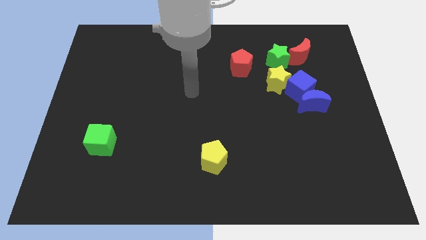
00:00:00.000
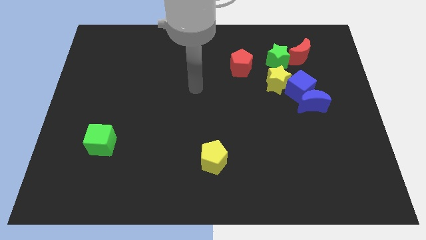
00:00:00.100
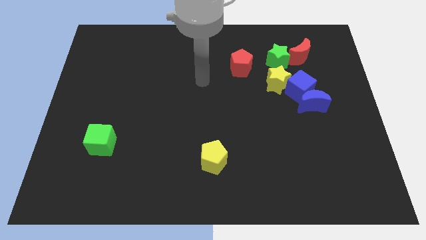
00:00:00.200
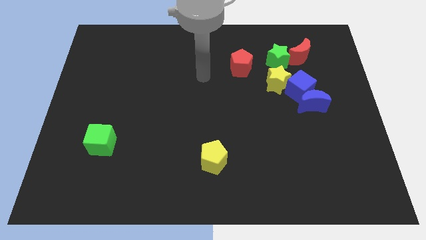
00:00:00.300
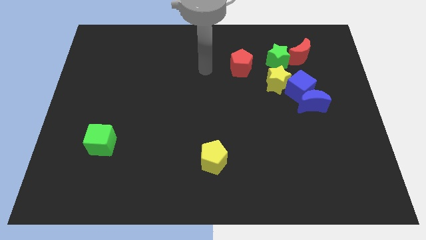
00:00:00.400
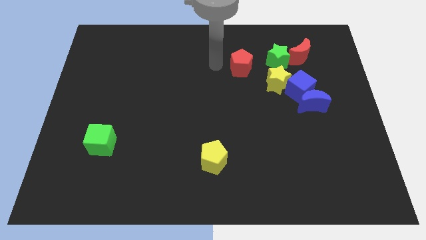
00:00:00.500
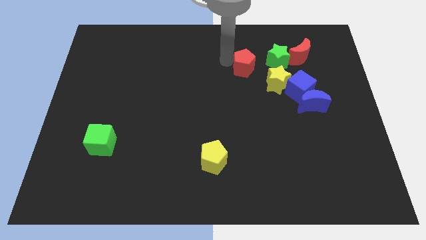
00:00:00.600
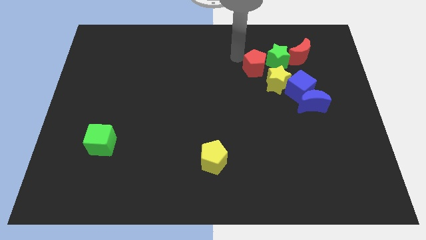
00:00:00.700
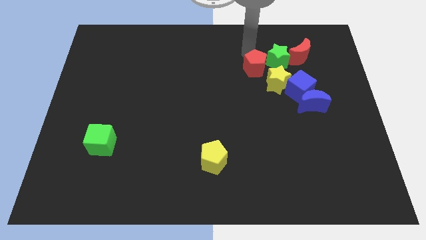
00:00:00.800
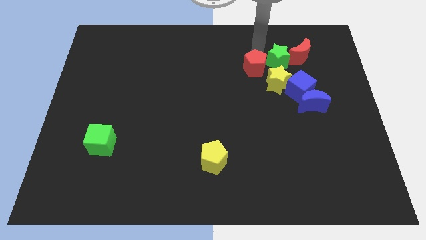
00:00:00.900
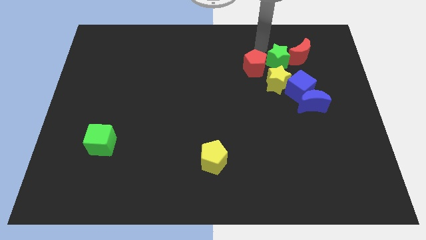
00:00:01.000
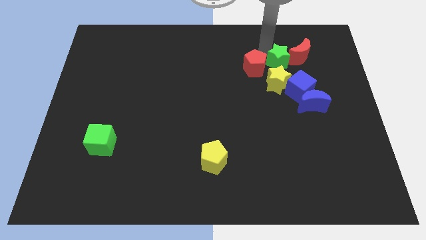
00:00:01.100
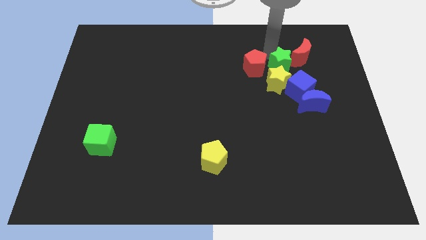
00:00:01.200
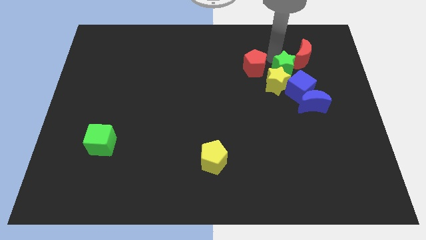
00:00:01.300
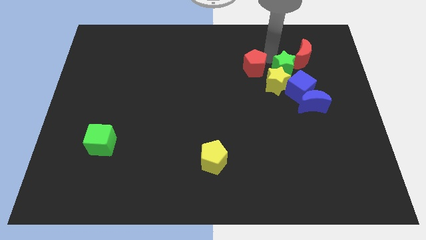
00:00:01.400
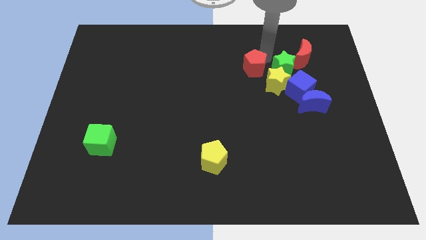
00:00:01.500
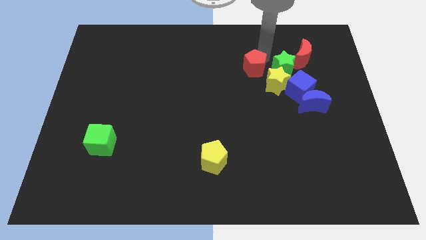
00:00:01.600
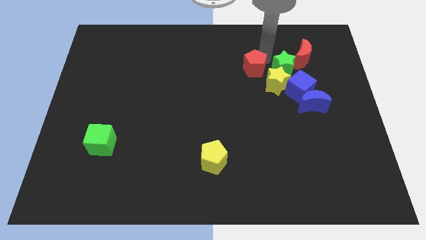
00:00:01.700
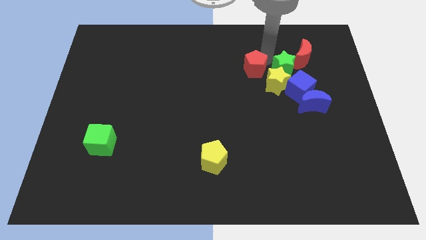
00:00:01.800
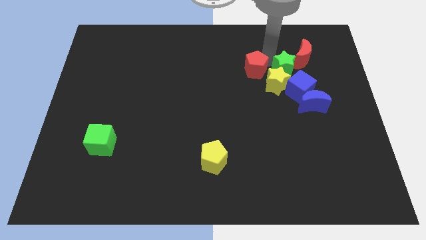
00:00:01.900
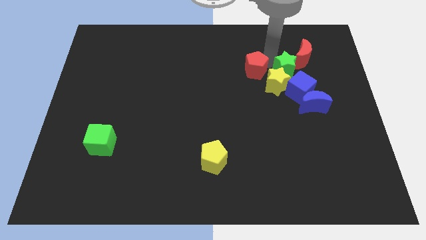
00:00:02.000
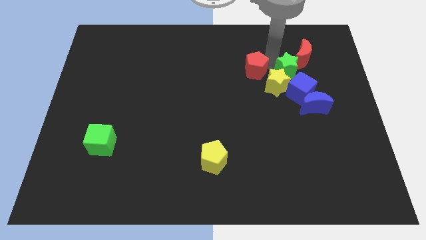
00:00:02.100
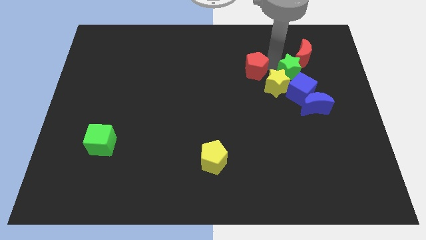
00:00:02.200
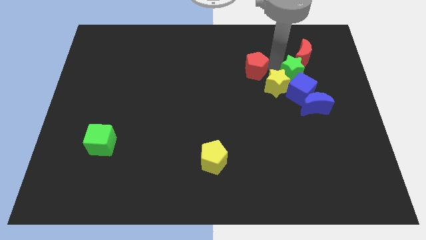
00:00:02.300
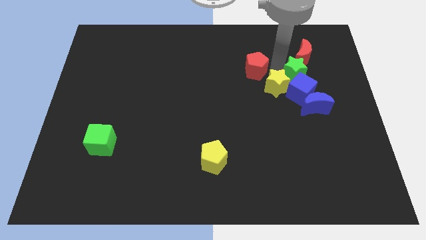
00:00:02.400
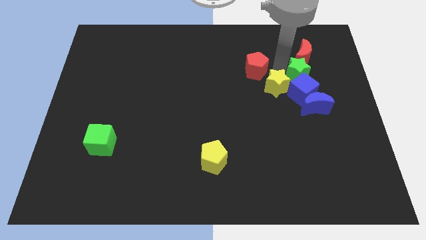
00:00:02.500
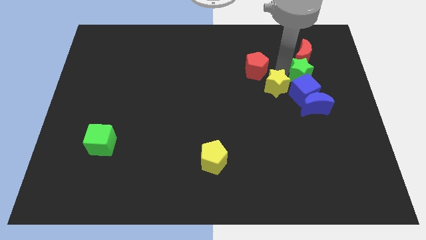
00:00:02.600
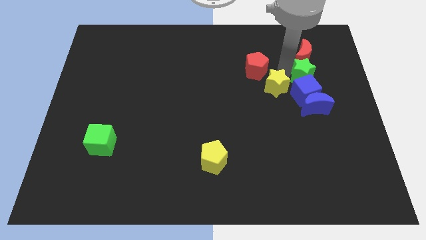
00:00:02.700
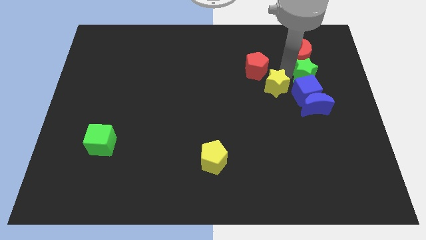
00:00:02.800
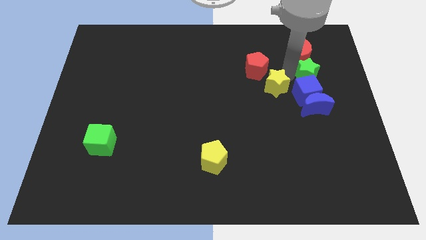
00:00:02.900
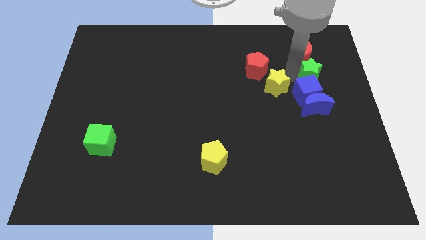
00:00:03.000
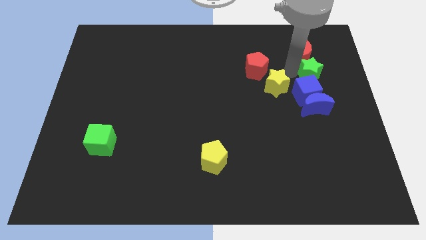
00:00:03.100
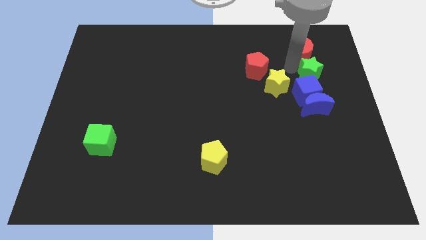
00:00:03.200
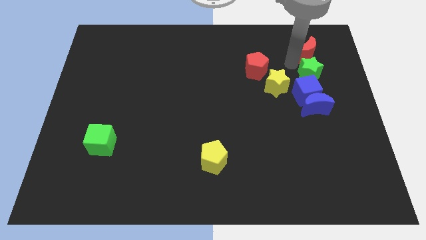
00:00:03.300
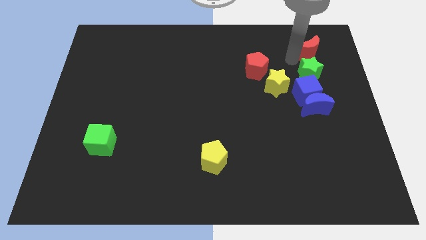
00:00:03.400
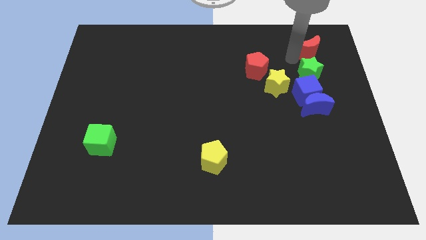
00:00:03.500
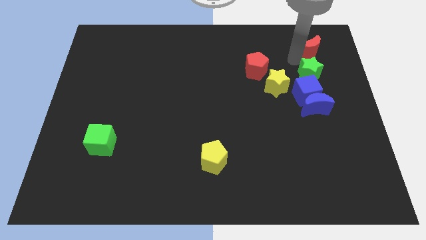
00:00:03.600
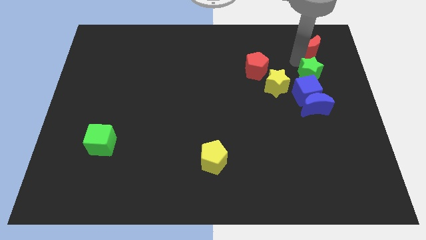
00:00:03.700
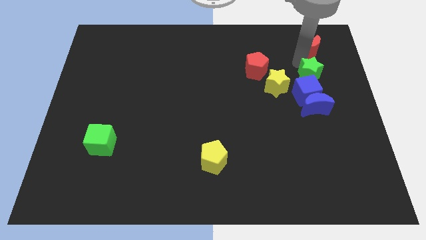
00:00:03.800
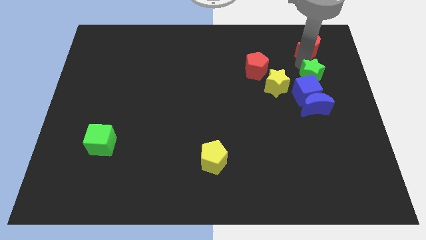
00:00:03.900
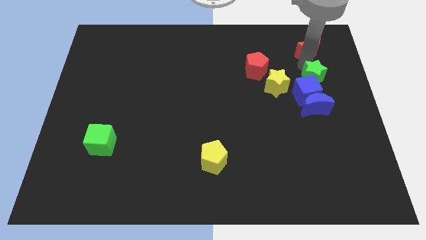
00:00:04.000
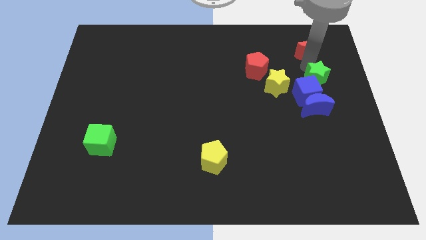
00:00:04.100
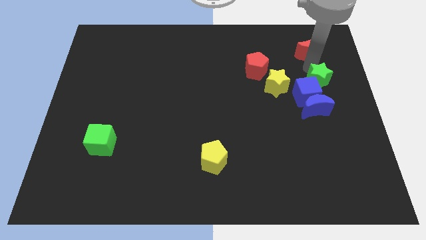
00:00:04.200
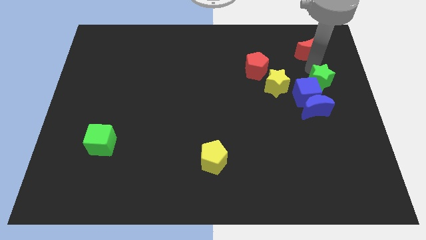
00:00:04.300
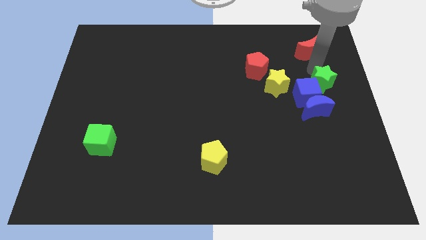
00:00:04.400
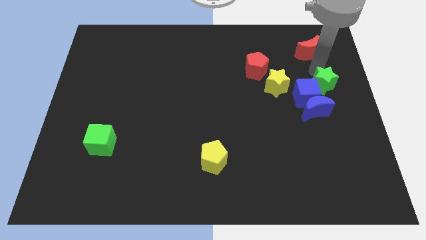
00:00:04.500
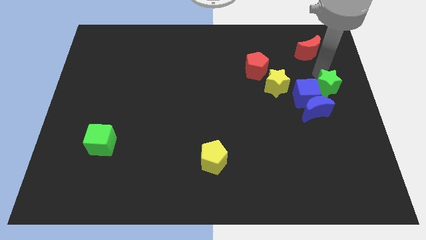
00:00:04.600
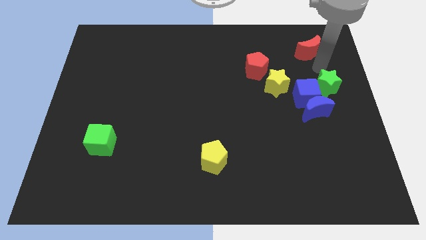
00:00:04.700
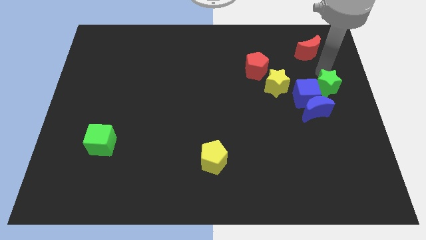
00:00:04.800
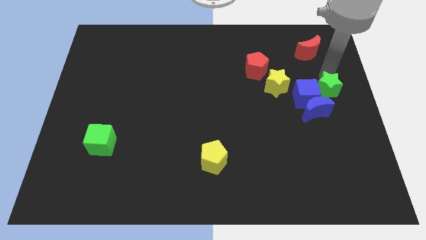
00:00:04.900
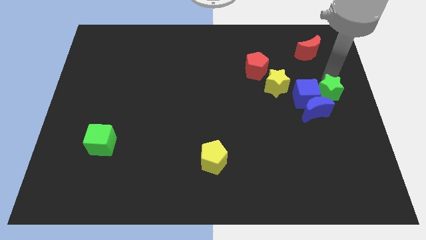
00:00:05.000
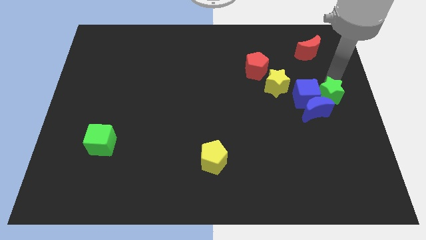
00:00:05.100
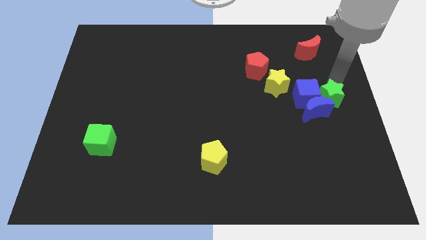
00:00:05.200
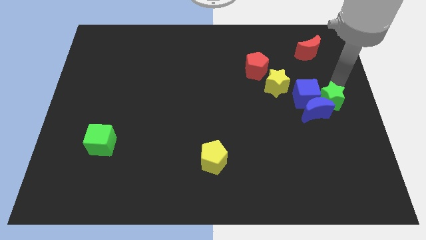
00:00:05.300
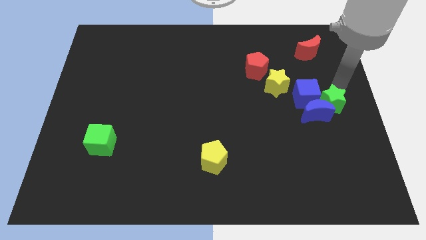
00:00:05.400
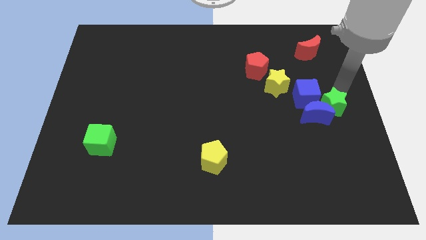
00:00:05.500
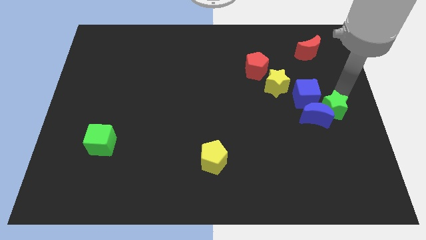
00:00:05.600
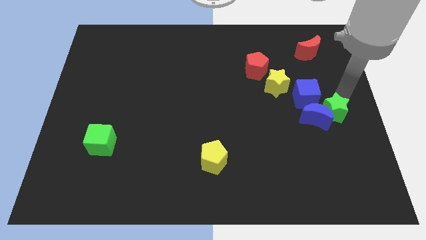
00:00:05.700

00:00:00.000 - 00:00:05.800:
move the green star to the bottom right side of the blue moon

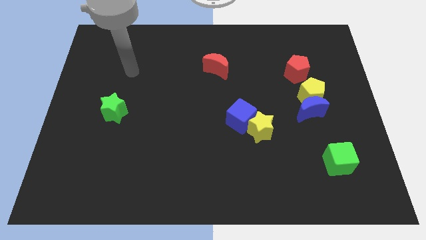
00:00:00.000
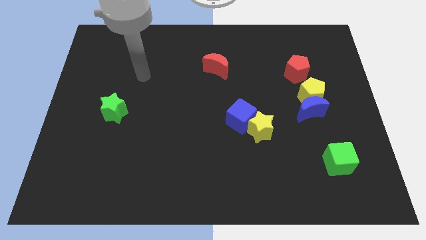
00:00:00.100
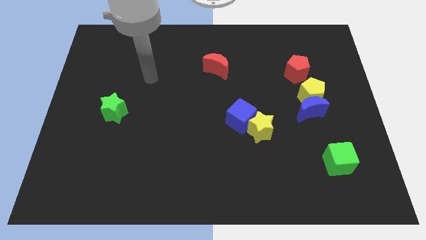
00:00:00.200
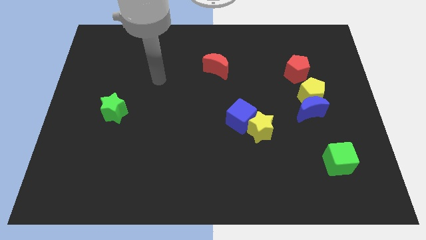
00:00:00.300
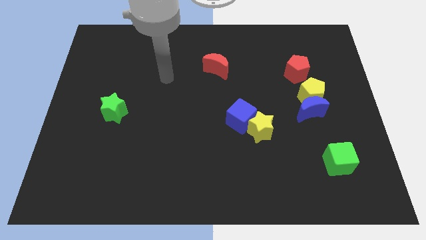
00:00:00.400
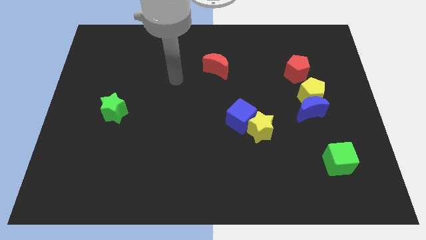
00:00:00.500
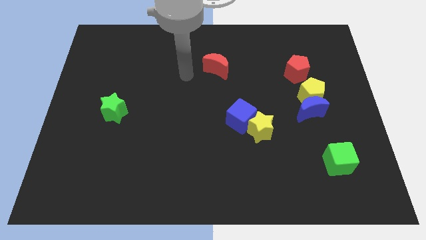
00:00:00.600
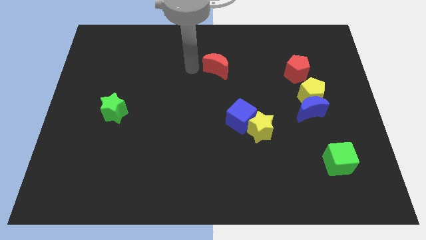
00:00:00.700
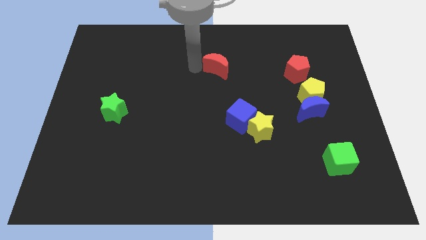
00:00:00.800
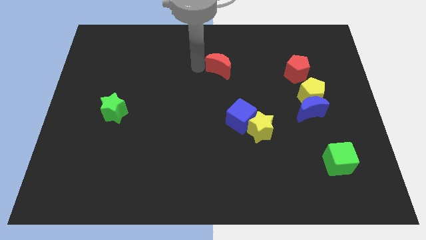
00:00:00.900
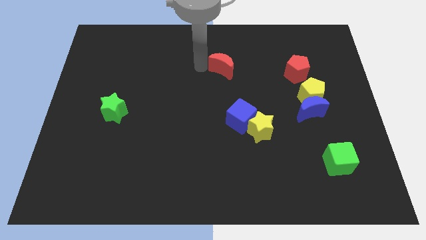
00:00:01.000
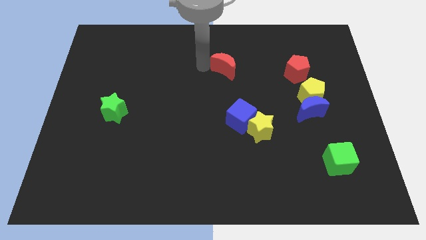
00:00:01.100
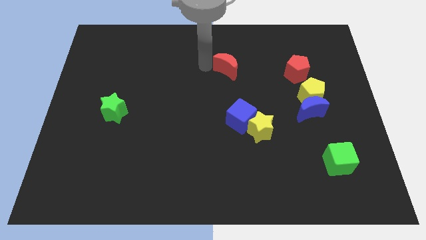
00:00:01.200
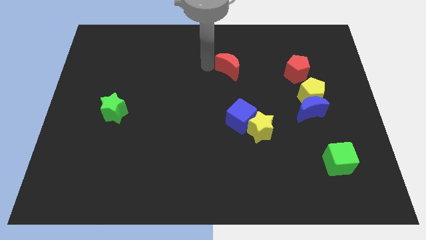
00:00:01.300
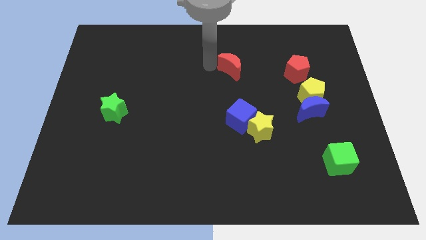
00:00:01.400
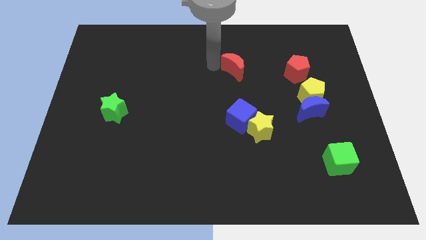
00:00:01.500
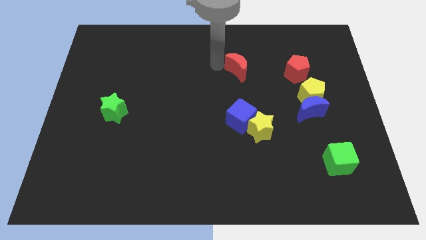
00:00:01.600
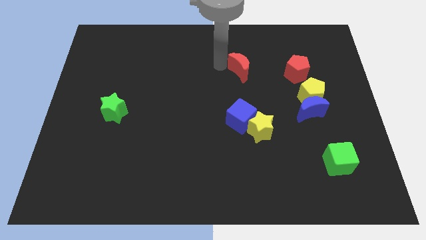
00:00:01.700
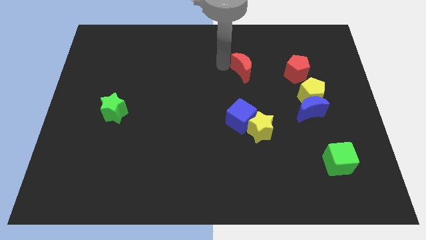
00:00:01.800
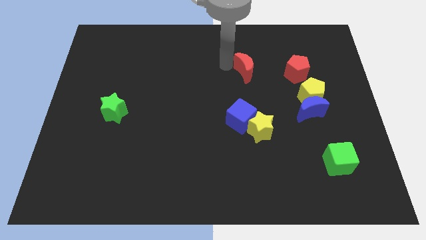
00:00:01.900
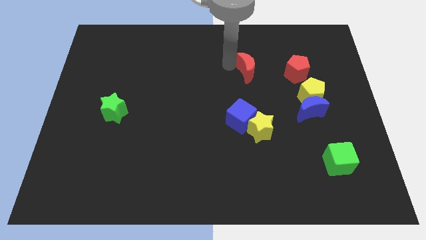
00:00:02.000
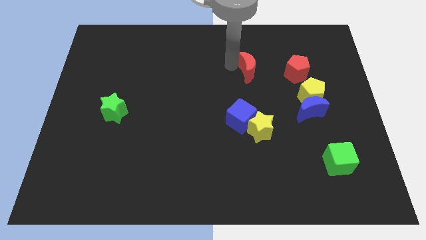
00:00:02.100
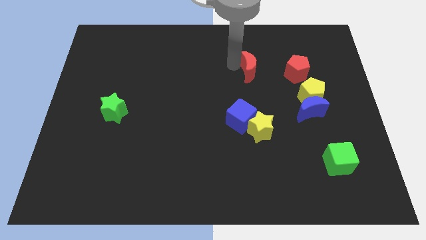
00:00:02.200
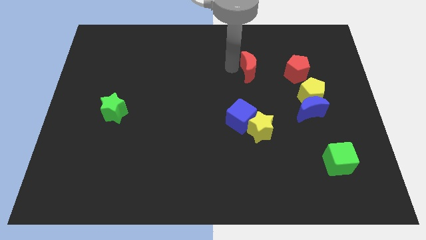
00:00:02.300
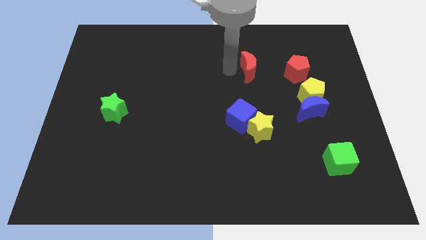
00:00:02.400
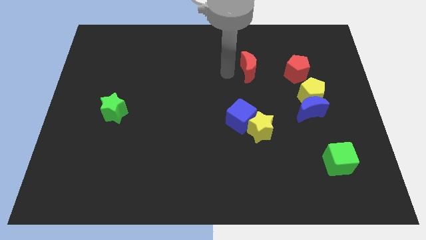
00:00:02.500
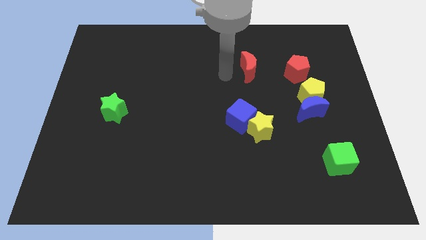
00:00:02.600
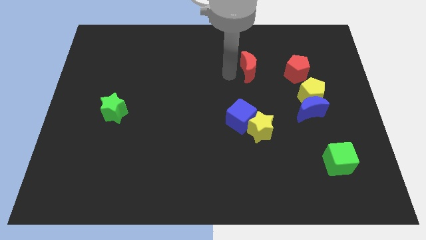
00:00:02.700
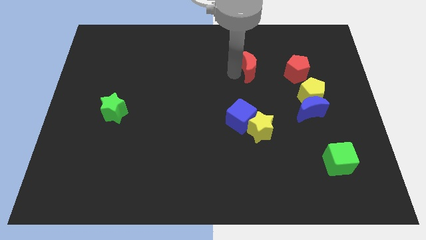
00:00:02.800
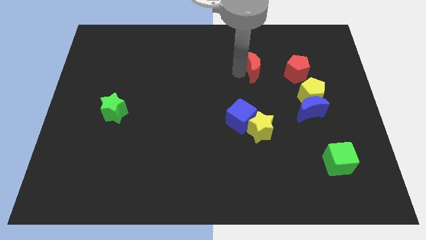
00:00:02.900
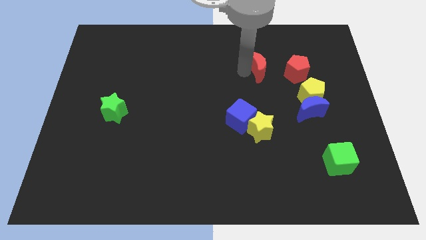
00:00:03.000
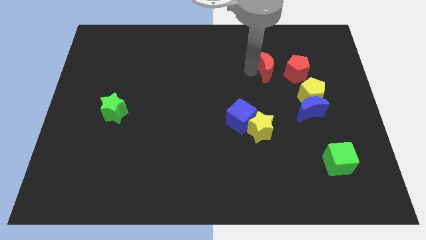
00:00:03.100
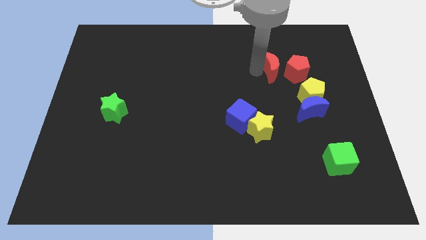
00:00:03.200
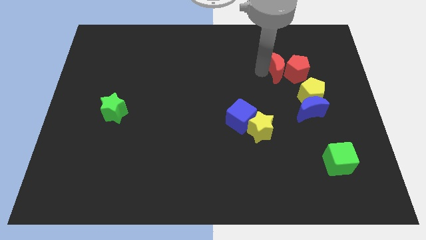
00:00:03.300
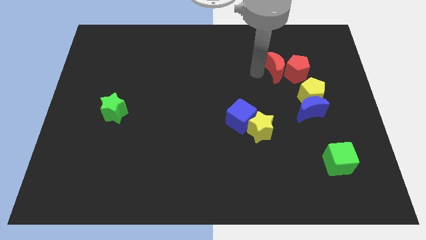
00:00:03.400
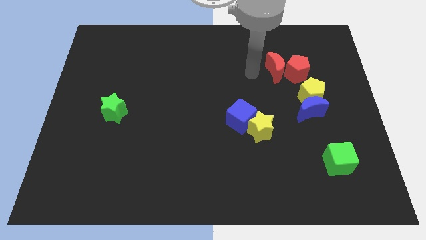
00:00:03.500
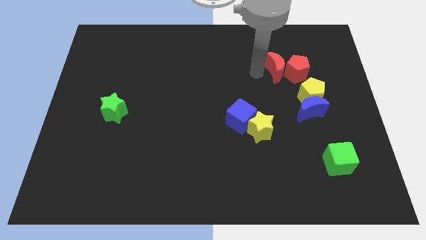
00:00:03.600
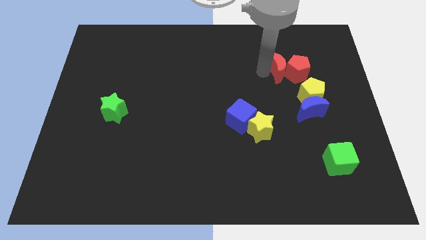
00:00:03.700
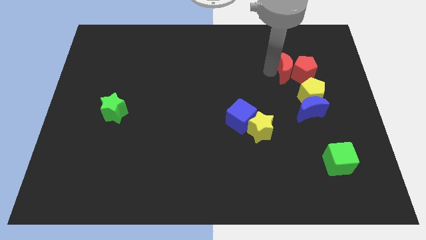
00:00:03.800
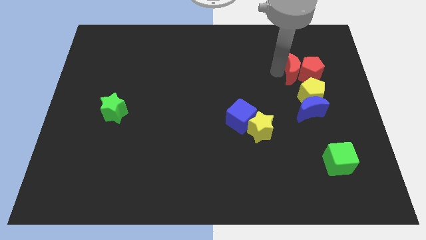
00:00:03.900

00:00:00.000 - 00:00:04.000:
push the red moon above the yellow pentagon
